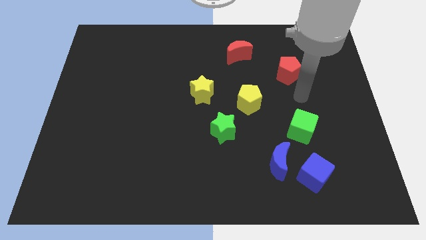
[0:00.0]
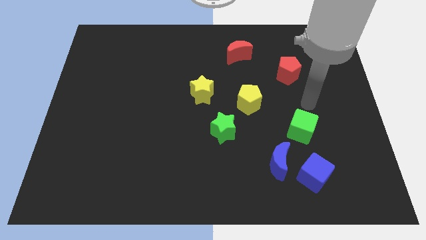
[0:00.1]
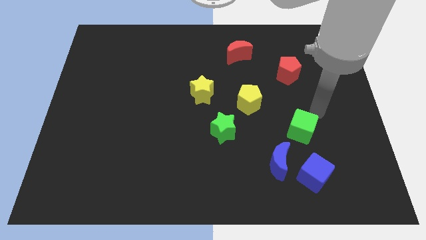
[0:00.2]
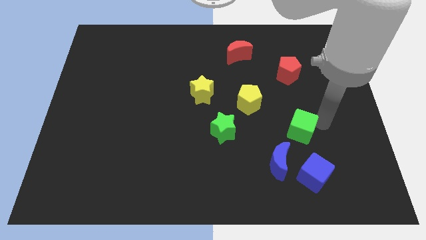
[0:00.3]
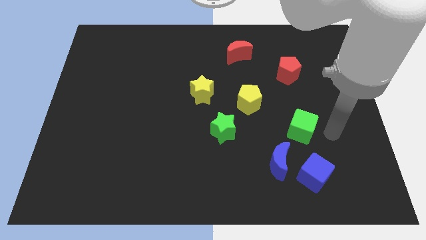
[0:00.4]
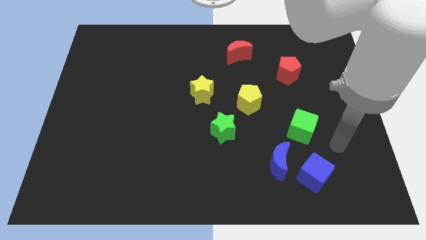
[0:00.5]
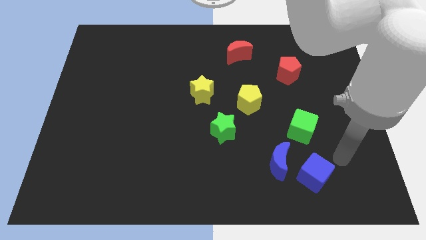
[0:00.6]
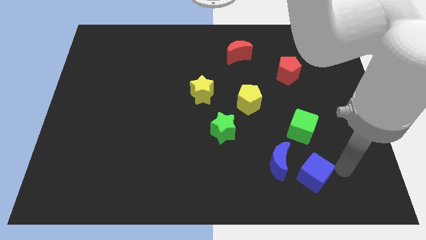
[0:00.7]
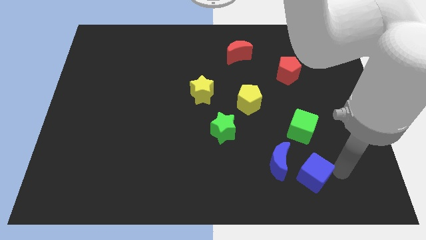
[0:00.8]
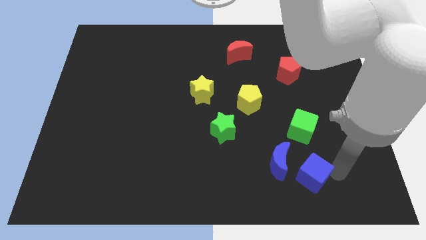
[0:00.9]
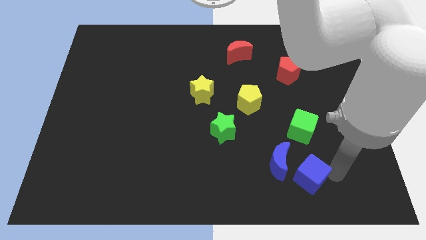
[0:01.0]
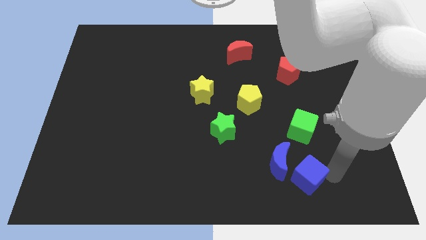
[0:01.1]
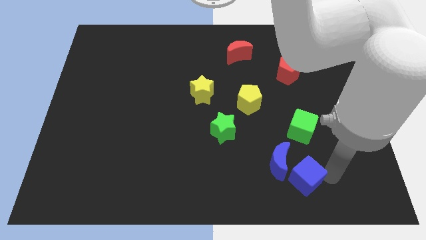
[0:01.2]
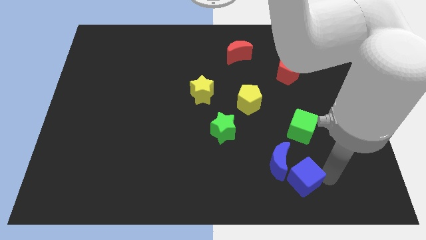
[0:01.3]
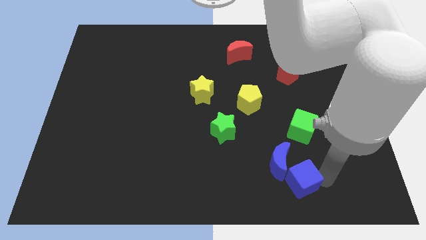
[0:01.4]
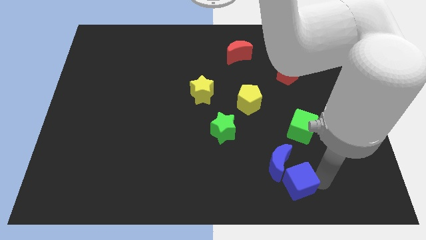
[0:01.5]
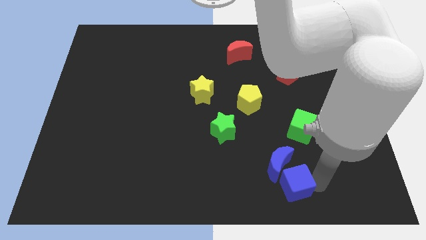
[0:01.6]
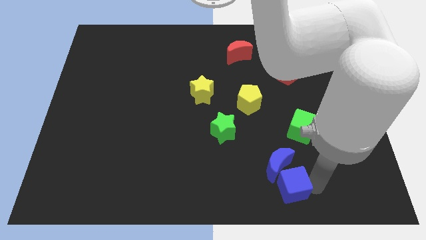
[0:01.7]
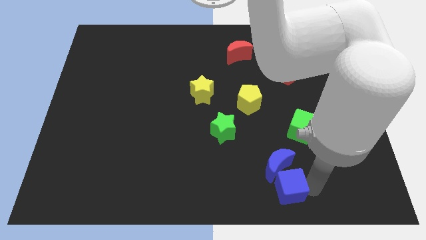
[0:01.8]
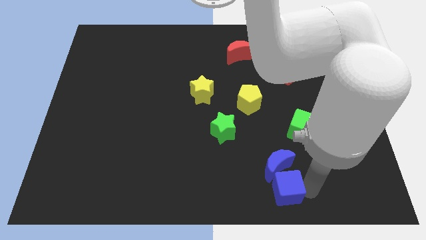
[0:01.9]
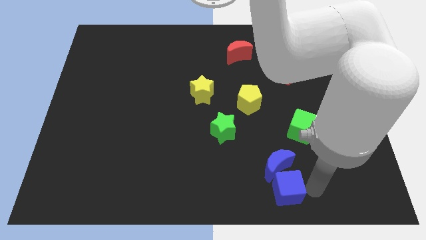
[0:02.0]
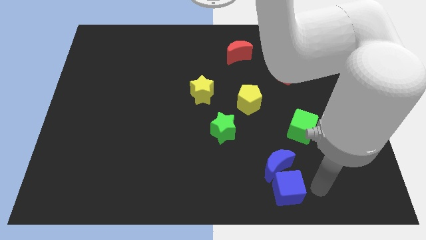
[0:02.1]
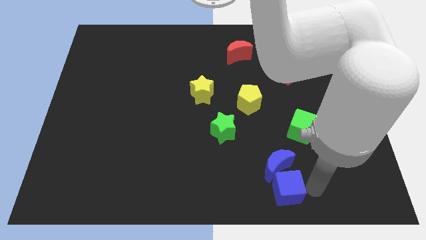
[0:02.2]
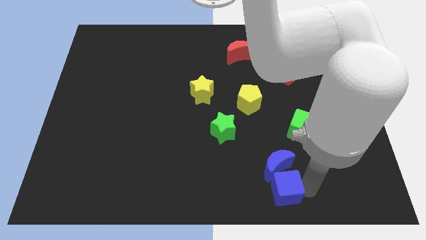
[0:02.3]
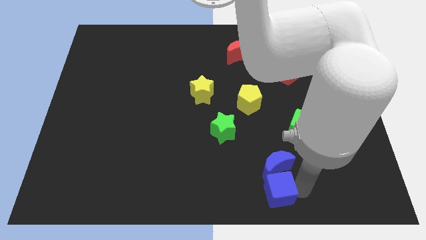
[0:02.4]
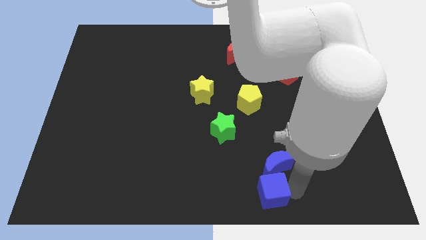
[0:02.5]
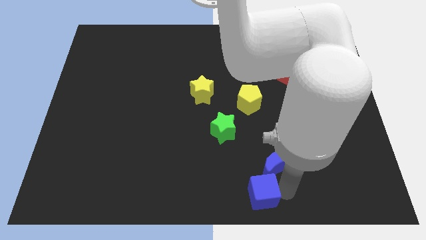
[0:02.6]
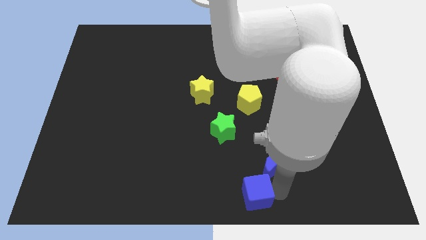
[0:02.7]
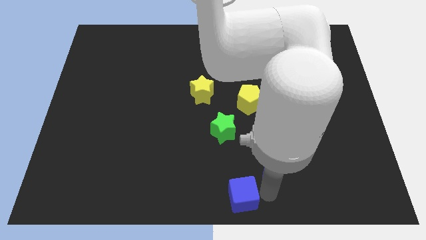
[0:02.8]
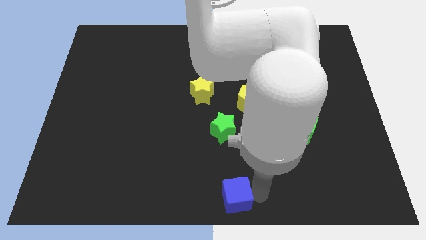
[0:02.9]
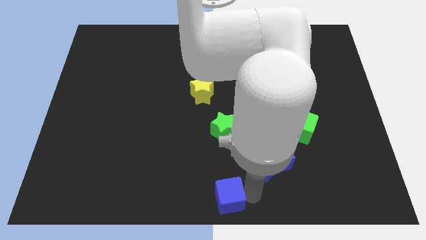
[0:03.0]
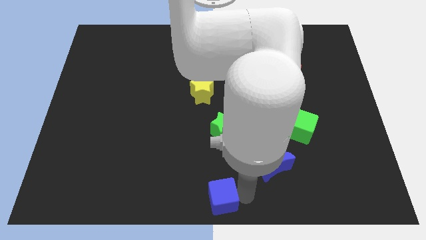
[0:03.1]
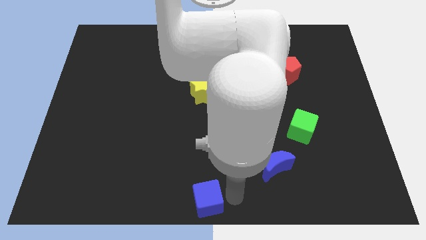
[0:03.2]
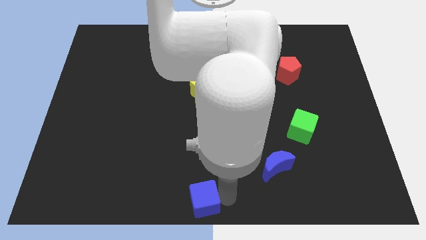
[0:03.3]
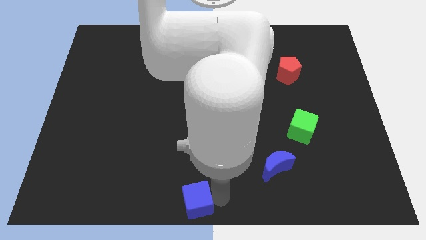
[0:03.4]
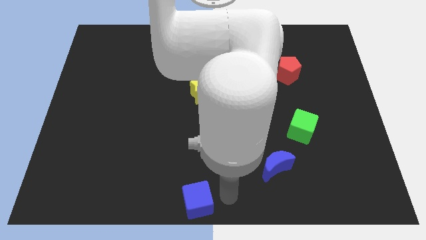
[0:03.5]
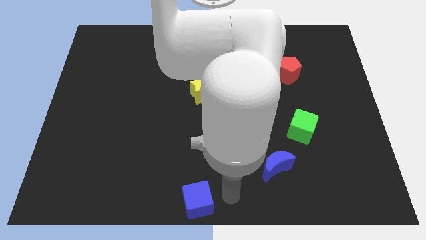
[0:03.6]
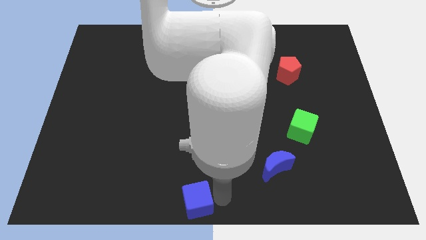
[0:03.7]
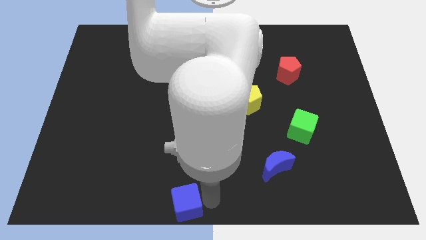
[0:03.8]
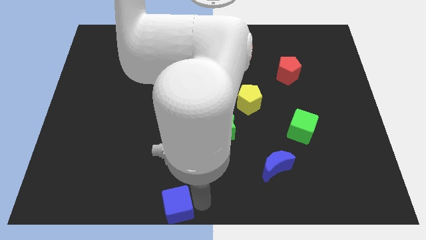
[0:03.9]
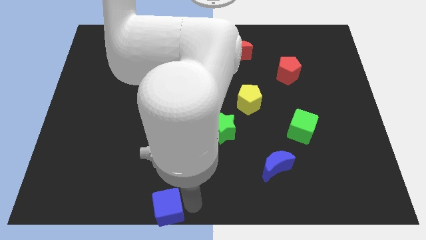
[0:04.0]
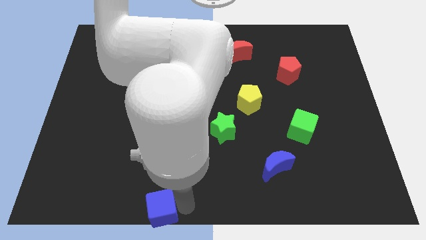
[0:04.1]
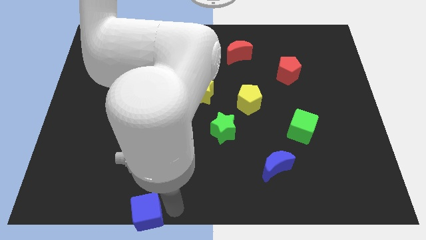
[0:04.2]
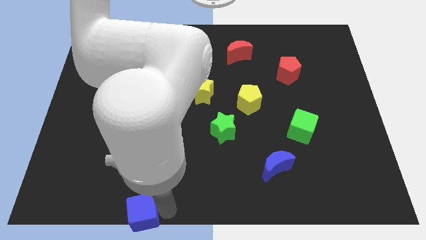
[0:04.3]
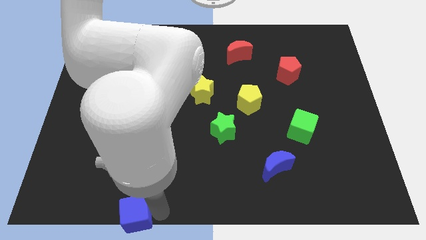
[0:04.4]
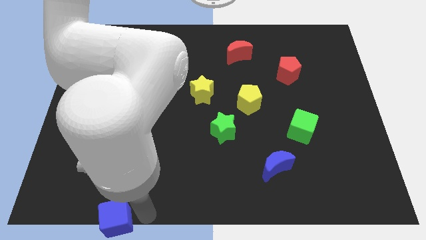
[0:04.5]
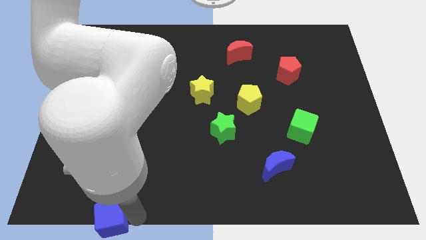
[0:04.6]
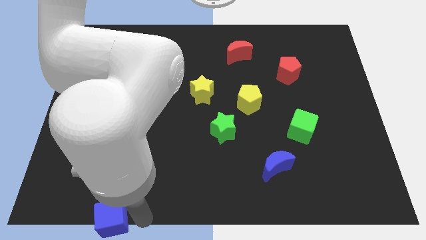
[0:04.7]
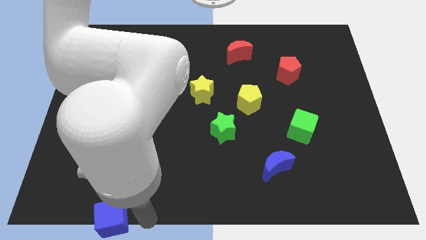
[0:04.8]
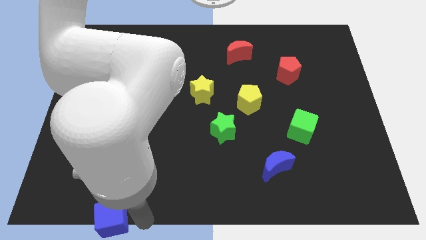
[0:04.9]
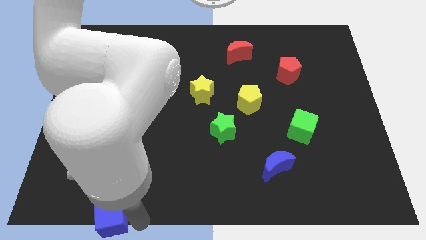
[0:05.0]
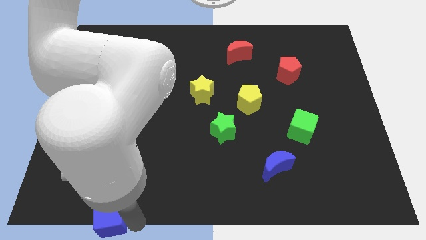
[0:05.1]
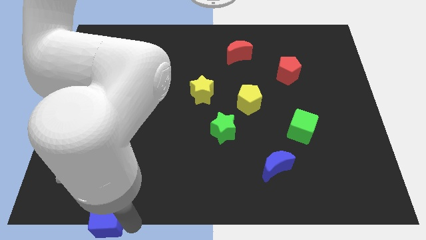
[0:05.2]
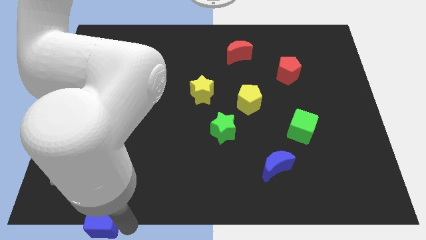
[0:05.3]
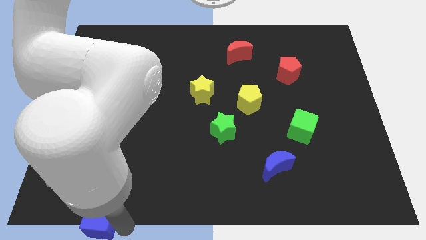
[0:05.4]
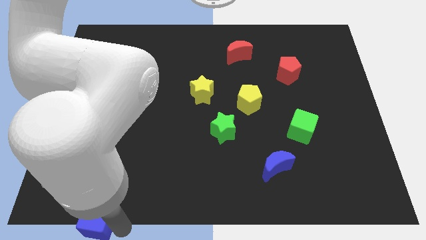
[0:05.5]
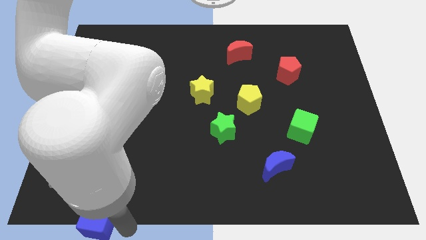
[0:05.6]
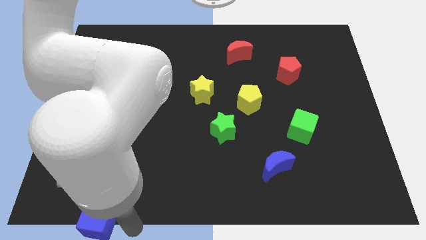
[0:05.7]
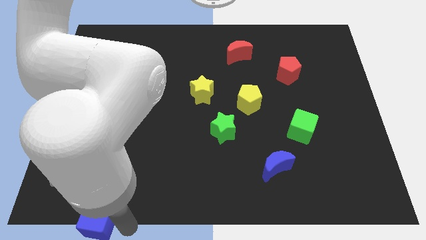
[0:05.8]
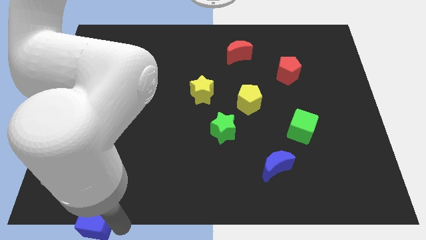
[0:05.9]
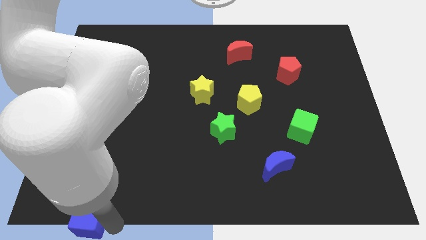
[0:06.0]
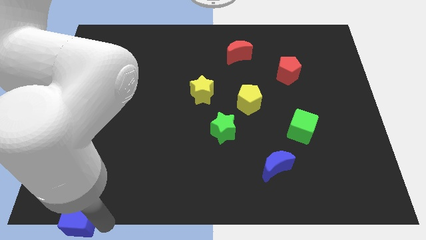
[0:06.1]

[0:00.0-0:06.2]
push the blue cube to the lower left corner
